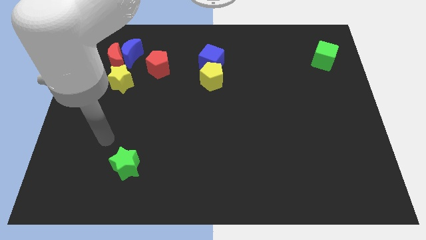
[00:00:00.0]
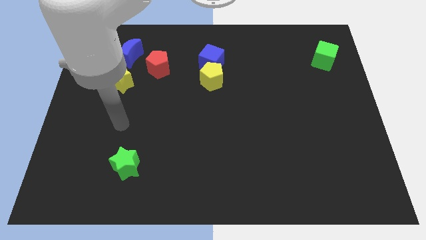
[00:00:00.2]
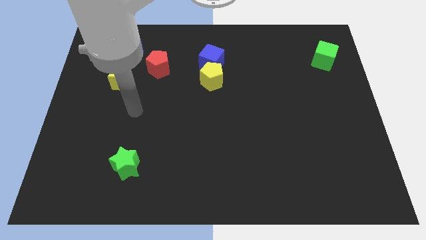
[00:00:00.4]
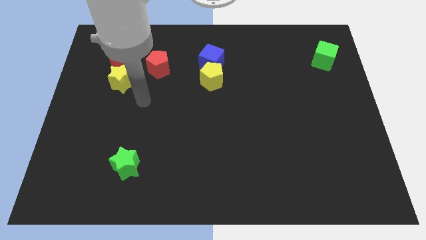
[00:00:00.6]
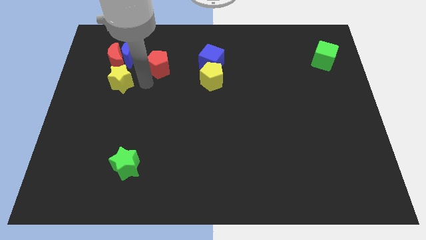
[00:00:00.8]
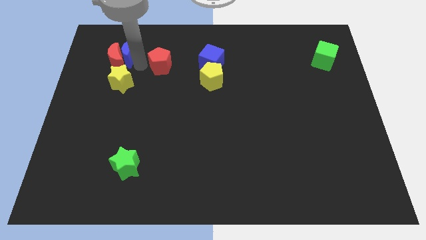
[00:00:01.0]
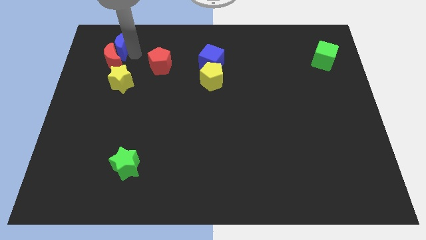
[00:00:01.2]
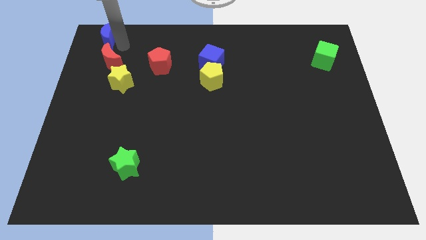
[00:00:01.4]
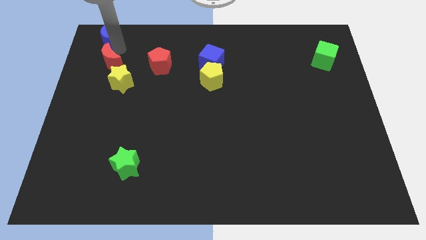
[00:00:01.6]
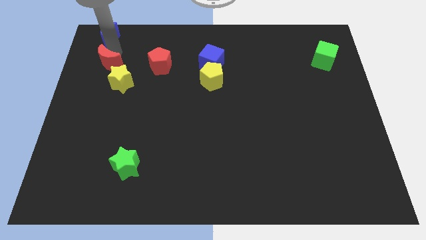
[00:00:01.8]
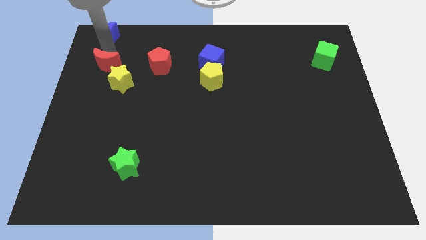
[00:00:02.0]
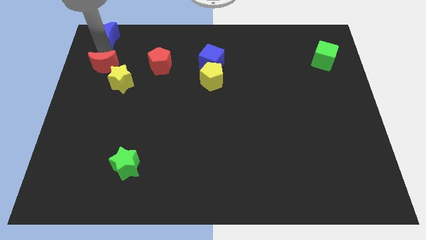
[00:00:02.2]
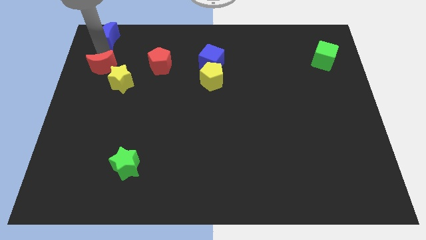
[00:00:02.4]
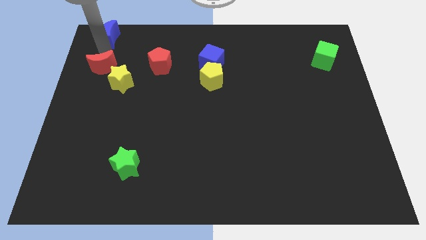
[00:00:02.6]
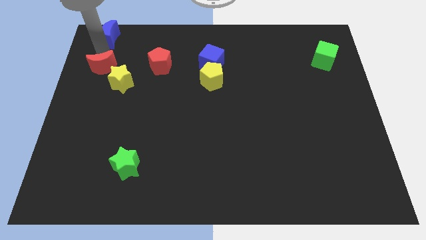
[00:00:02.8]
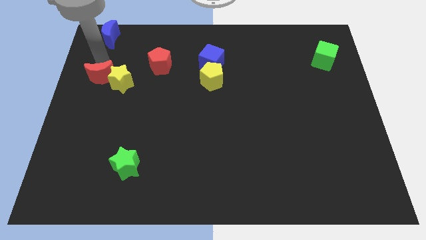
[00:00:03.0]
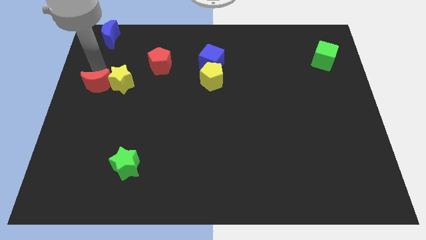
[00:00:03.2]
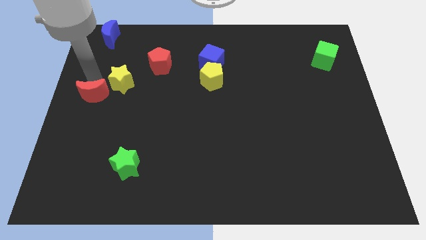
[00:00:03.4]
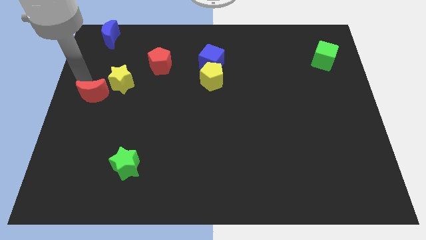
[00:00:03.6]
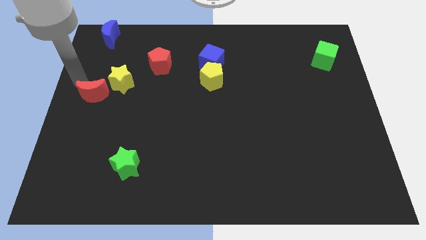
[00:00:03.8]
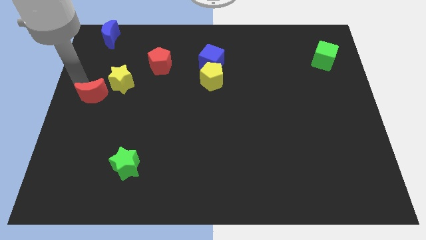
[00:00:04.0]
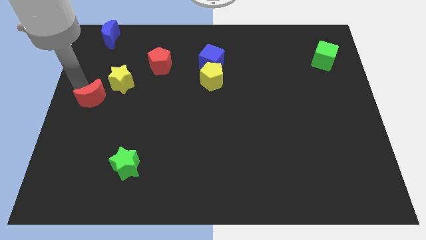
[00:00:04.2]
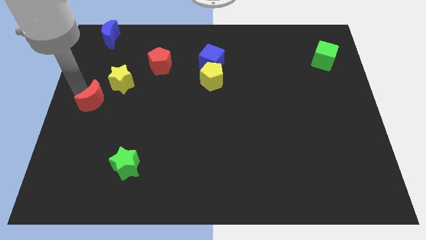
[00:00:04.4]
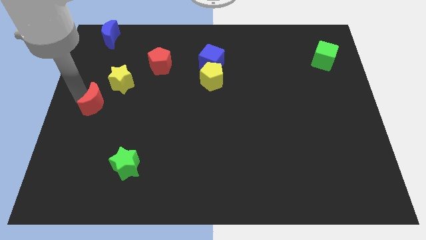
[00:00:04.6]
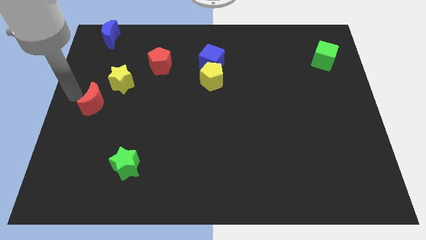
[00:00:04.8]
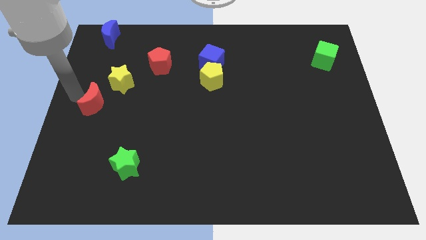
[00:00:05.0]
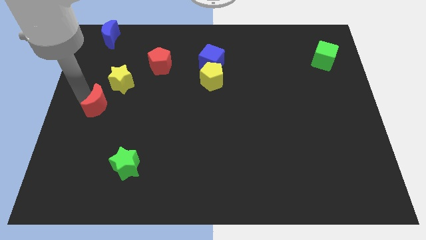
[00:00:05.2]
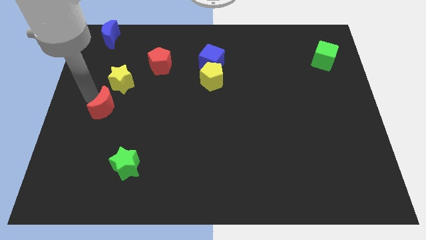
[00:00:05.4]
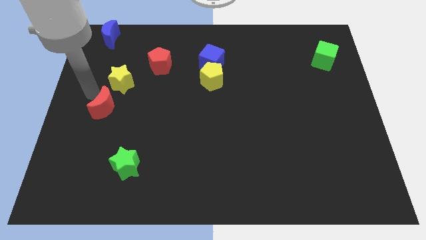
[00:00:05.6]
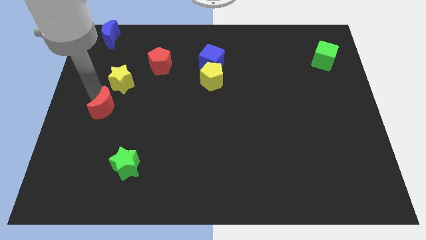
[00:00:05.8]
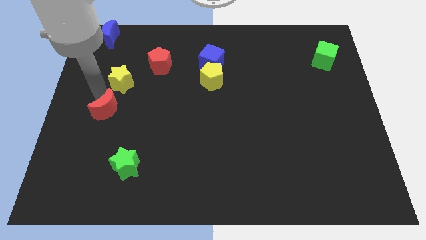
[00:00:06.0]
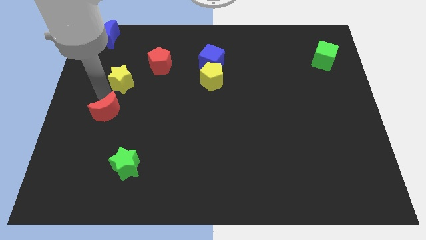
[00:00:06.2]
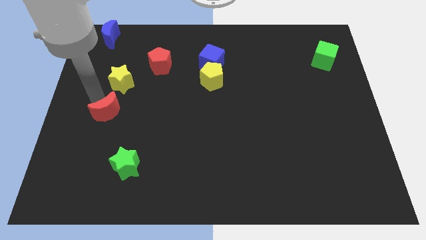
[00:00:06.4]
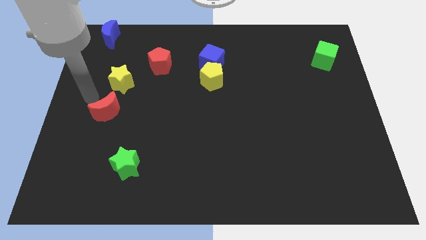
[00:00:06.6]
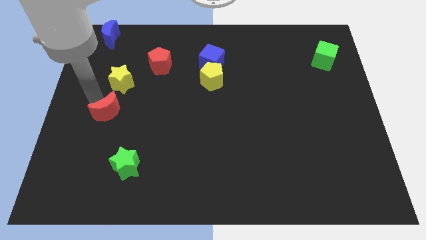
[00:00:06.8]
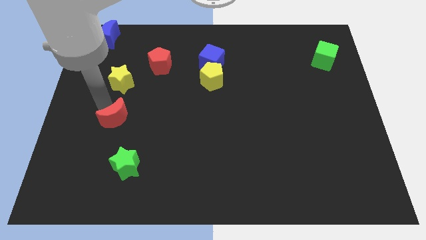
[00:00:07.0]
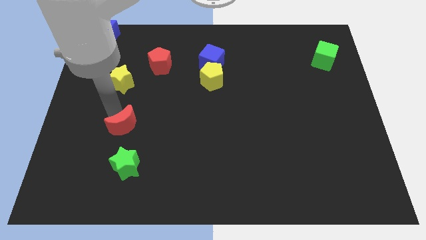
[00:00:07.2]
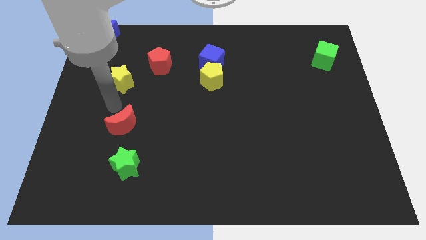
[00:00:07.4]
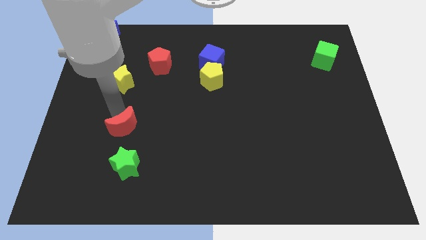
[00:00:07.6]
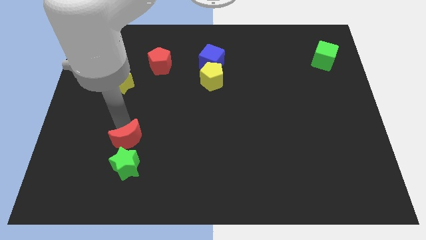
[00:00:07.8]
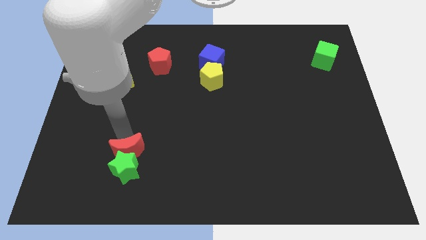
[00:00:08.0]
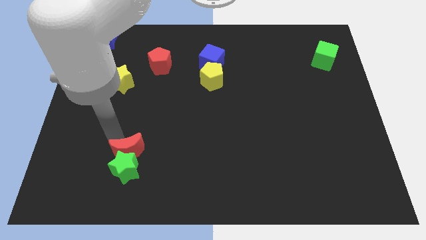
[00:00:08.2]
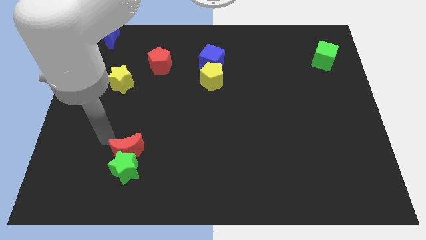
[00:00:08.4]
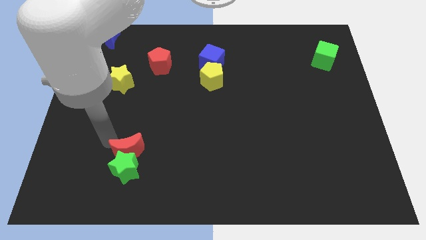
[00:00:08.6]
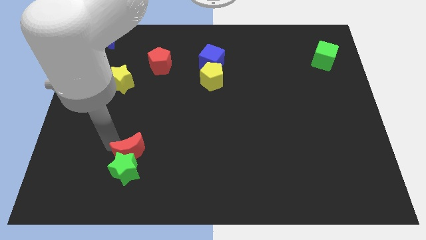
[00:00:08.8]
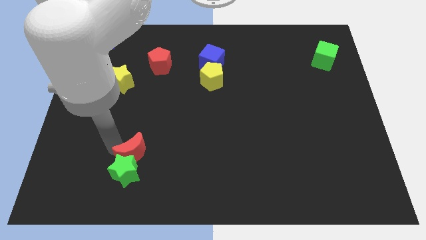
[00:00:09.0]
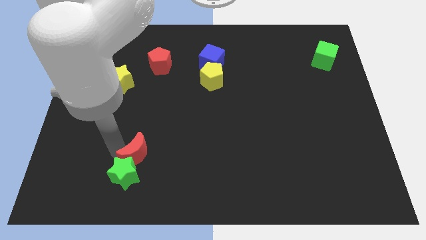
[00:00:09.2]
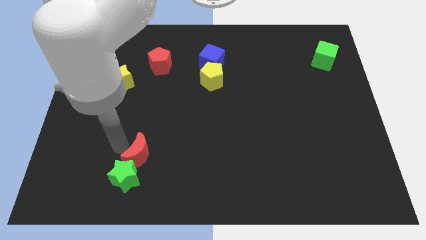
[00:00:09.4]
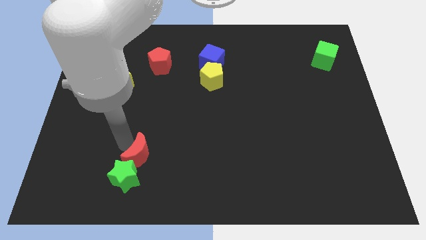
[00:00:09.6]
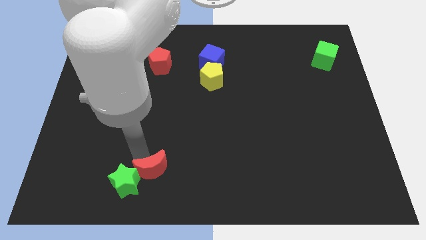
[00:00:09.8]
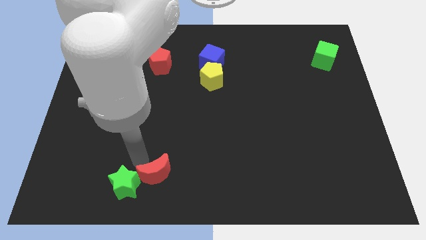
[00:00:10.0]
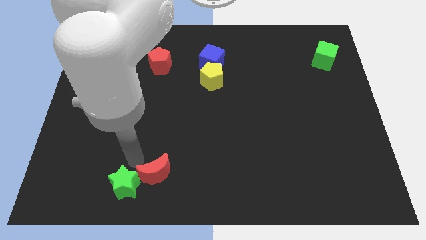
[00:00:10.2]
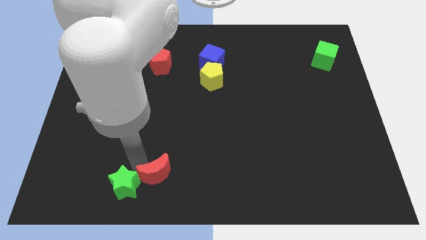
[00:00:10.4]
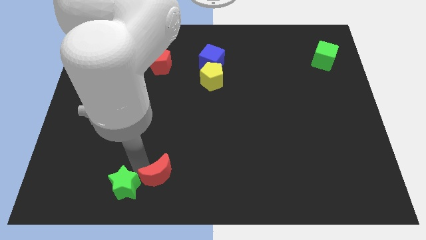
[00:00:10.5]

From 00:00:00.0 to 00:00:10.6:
slide the red moon to the bottom side

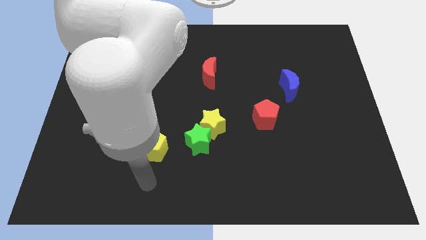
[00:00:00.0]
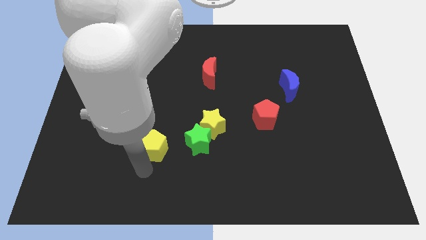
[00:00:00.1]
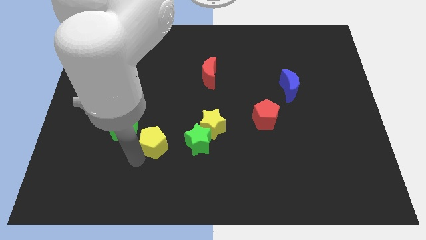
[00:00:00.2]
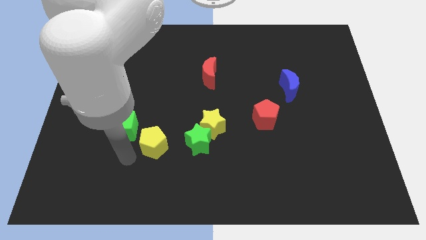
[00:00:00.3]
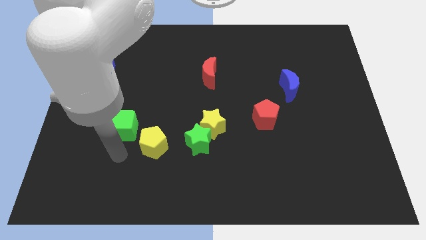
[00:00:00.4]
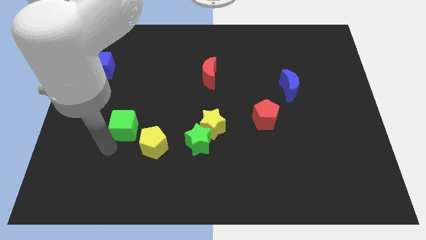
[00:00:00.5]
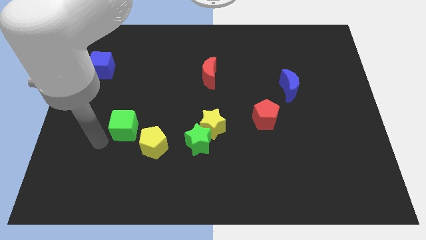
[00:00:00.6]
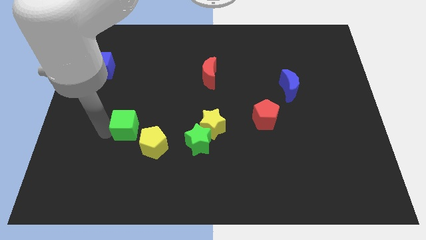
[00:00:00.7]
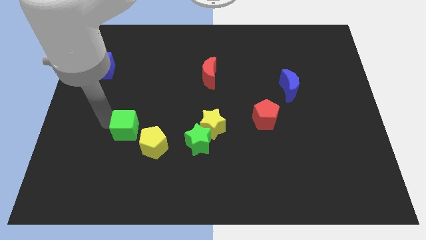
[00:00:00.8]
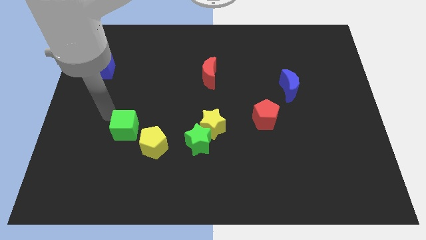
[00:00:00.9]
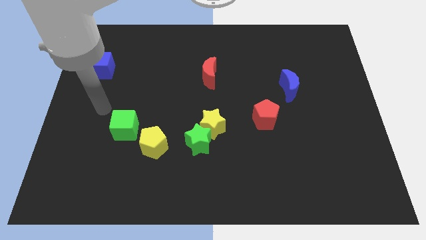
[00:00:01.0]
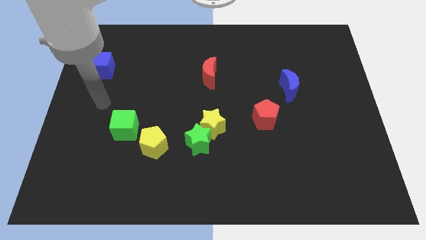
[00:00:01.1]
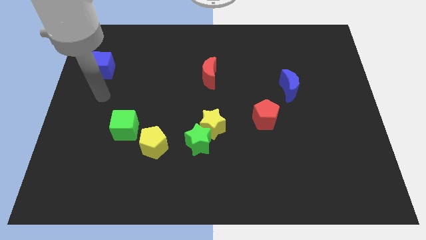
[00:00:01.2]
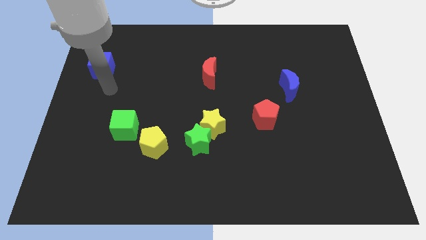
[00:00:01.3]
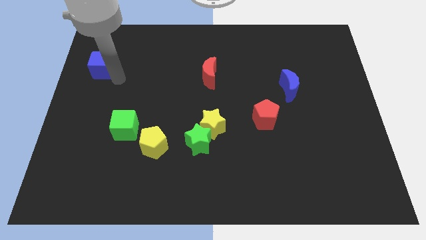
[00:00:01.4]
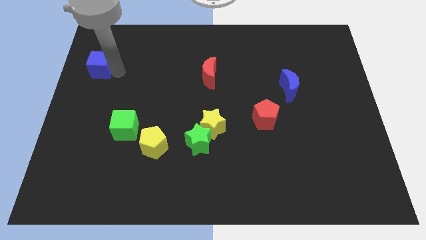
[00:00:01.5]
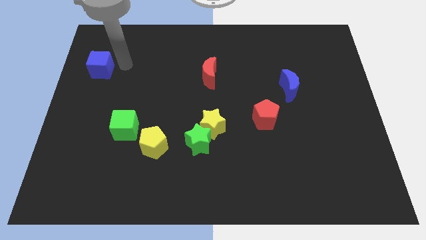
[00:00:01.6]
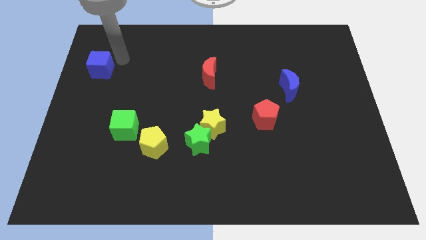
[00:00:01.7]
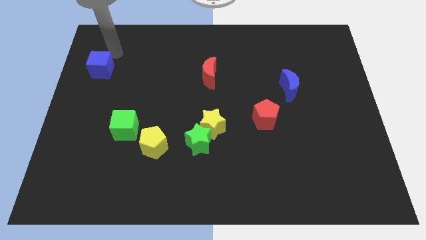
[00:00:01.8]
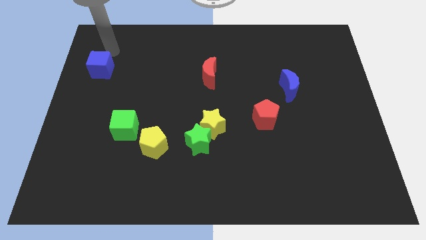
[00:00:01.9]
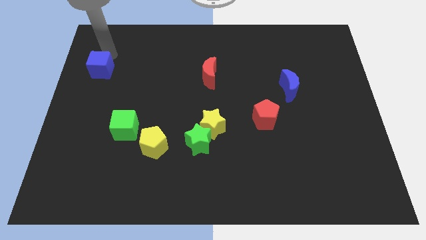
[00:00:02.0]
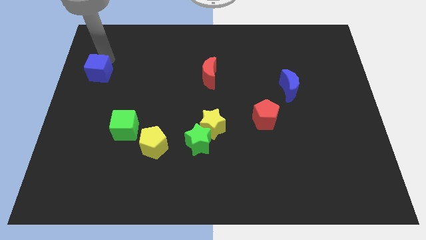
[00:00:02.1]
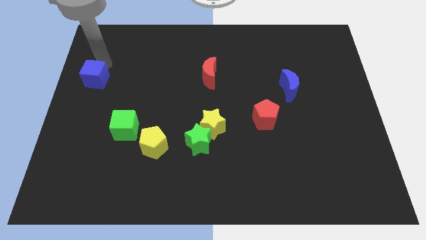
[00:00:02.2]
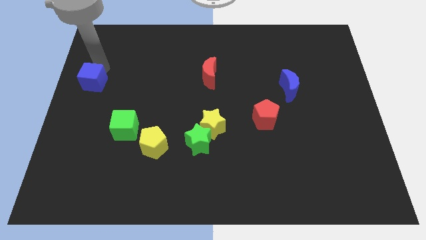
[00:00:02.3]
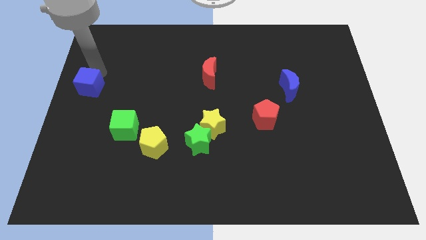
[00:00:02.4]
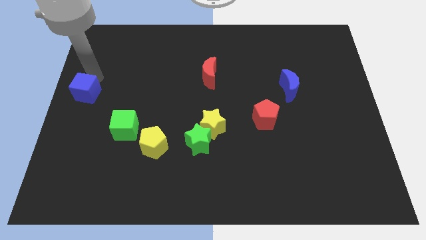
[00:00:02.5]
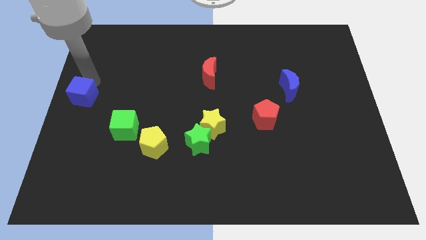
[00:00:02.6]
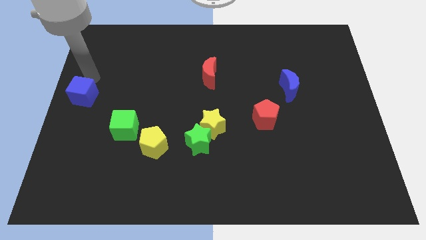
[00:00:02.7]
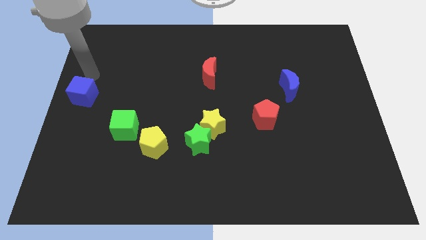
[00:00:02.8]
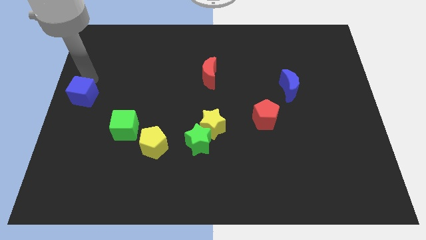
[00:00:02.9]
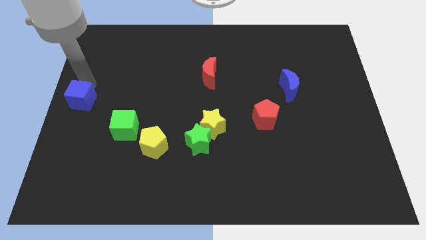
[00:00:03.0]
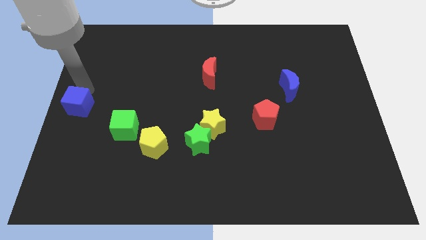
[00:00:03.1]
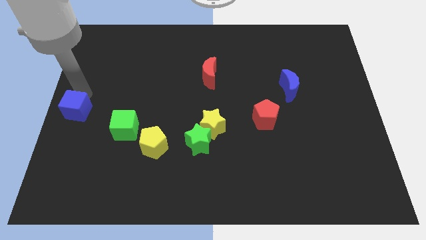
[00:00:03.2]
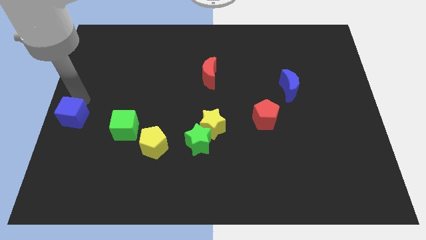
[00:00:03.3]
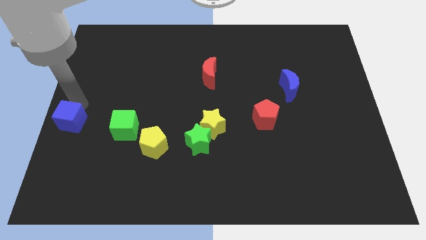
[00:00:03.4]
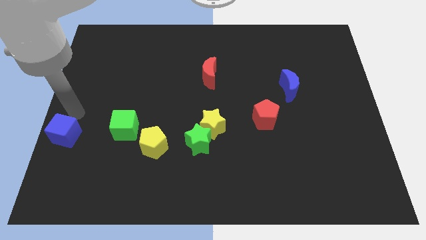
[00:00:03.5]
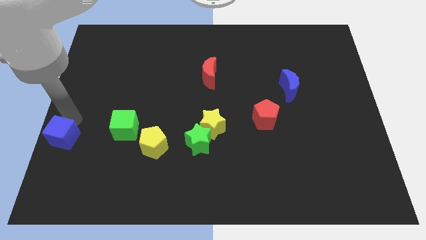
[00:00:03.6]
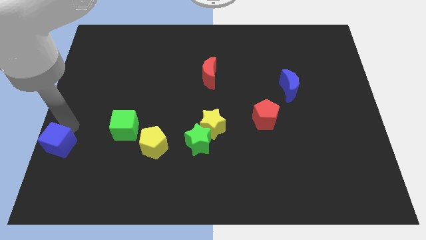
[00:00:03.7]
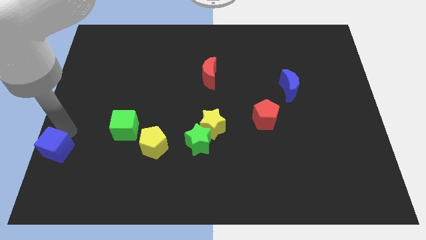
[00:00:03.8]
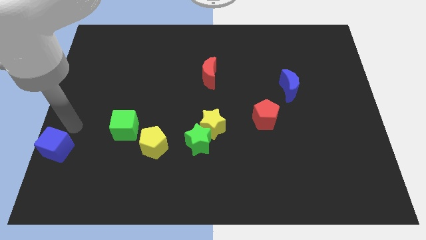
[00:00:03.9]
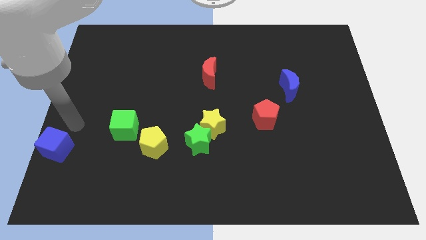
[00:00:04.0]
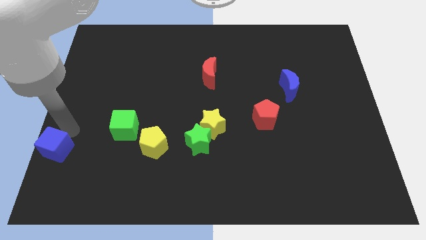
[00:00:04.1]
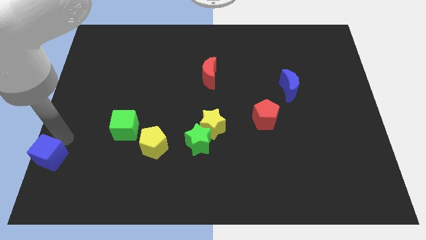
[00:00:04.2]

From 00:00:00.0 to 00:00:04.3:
put the blue cube to the bottom left of the board
